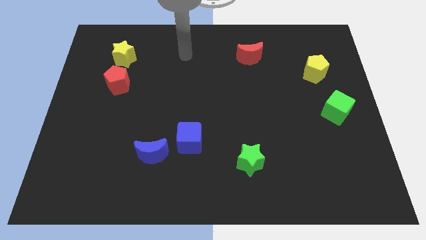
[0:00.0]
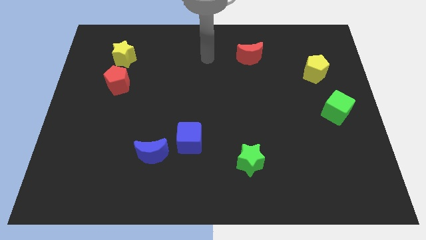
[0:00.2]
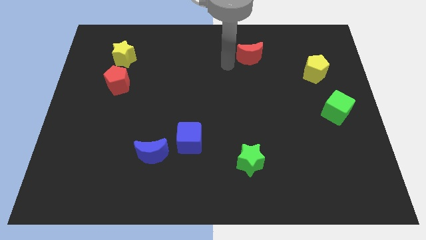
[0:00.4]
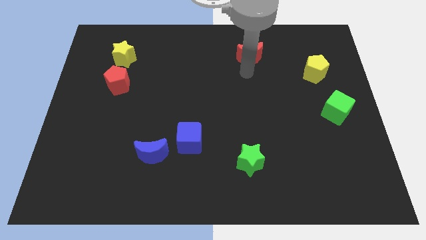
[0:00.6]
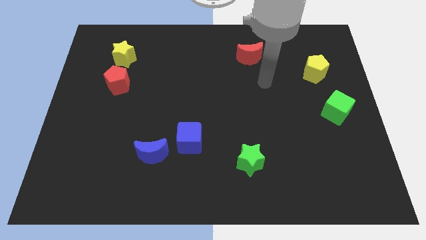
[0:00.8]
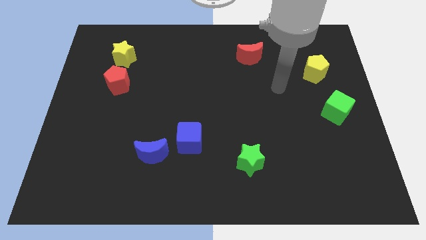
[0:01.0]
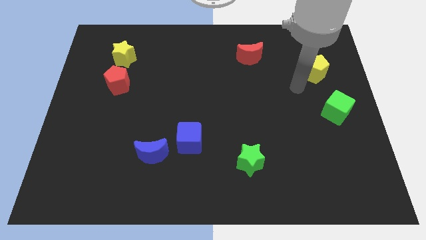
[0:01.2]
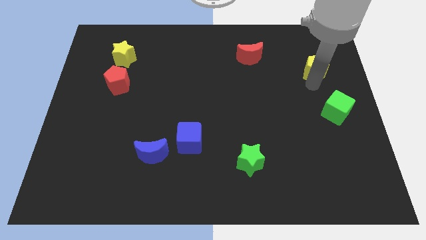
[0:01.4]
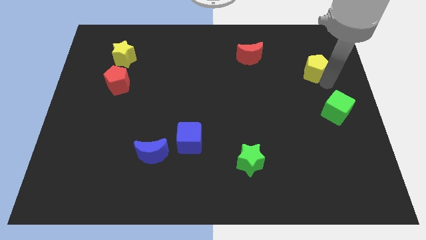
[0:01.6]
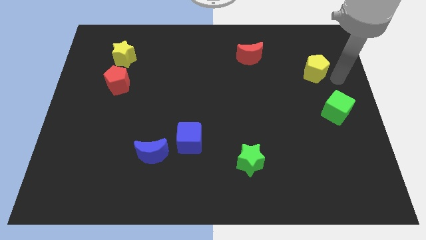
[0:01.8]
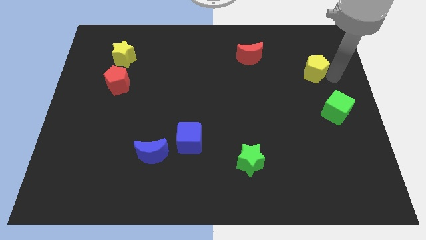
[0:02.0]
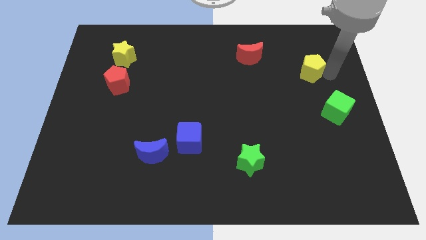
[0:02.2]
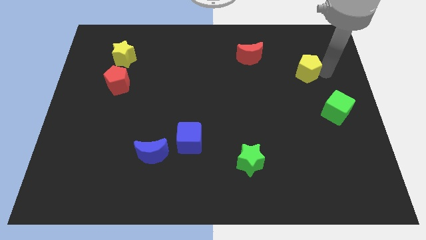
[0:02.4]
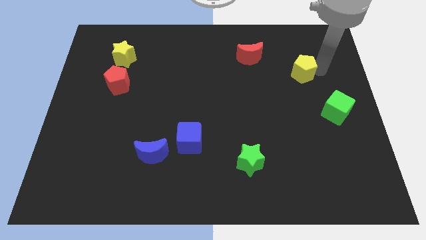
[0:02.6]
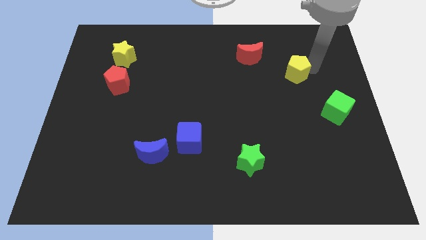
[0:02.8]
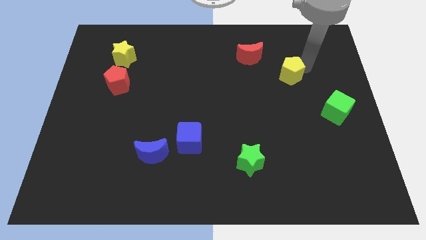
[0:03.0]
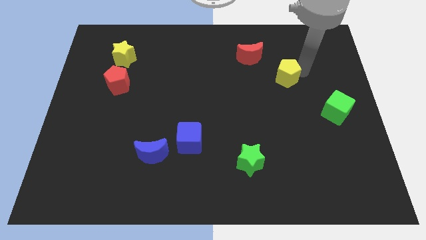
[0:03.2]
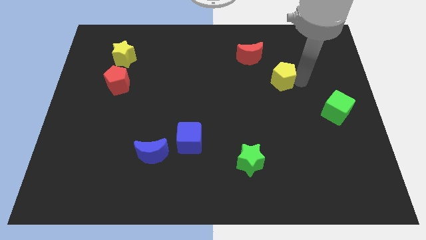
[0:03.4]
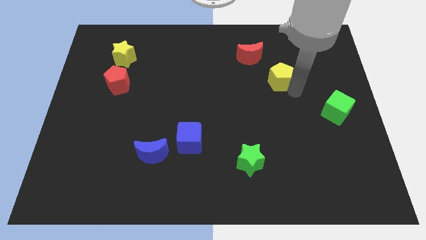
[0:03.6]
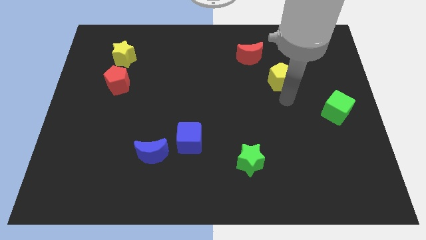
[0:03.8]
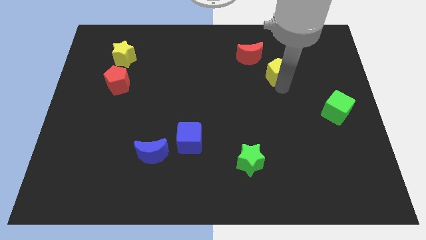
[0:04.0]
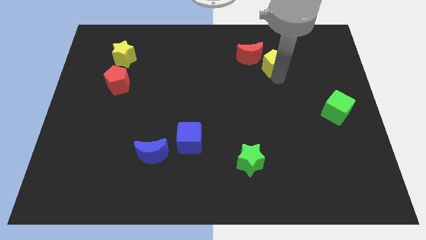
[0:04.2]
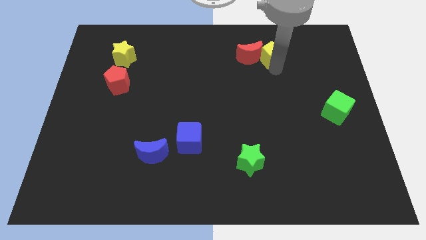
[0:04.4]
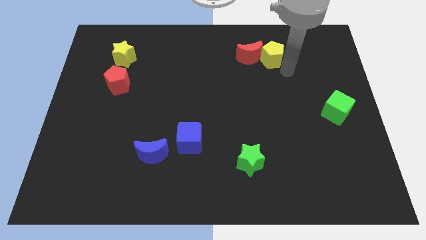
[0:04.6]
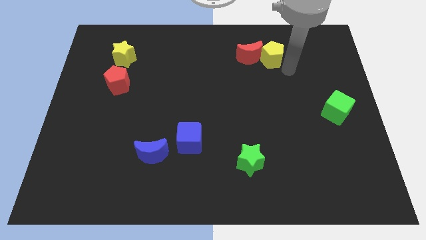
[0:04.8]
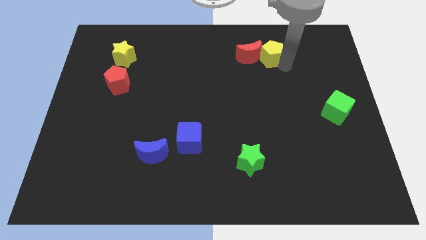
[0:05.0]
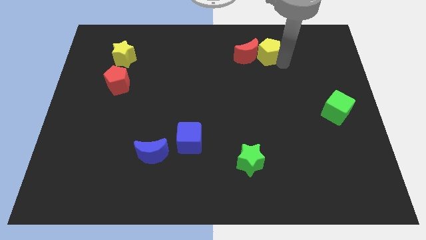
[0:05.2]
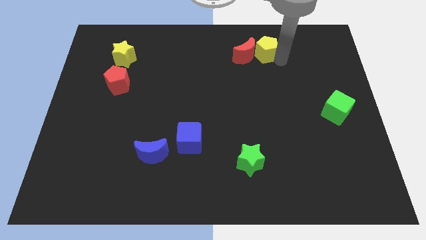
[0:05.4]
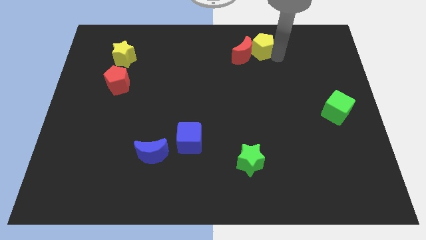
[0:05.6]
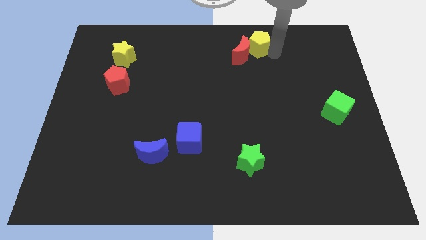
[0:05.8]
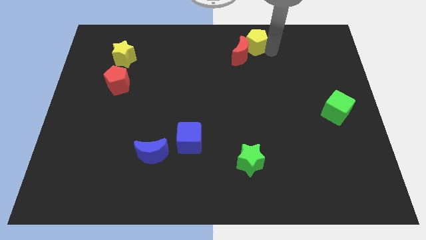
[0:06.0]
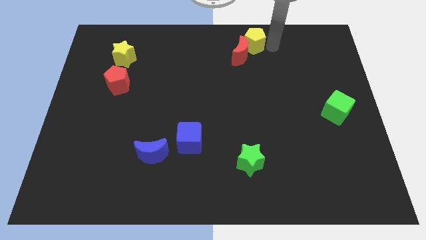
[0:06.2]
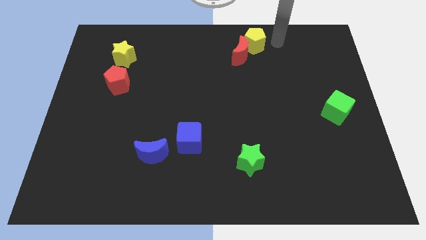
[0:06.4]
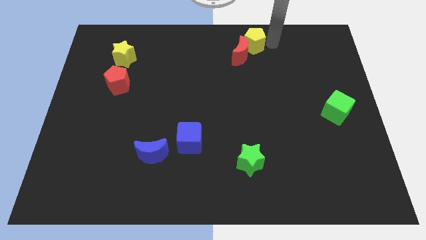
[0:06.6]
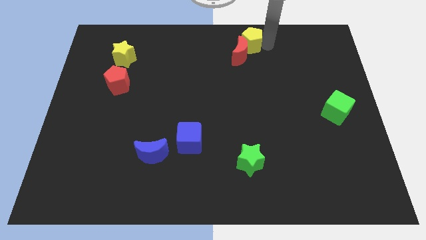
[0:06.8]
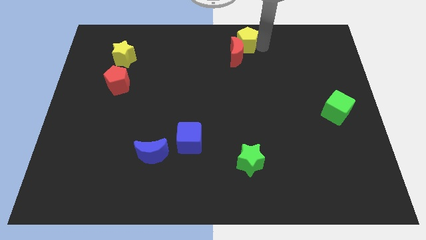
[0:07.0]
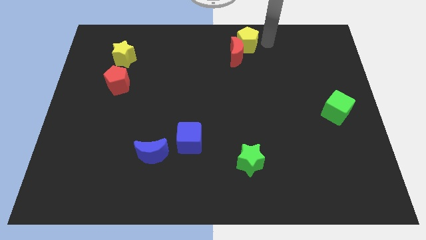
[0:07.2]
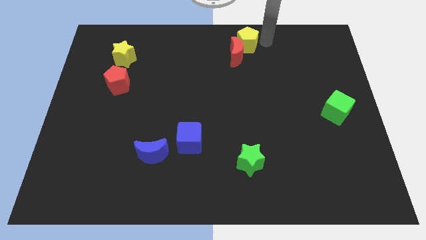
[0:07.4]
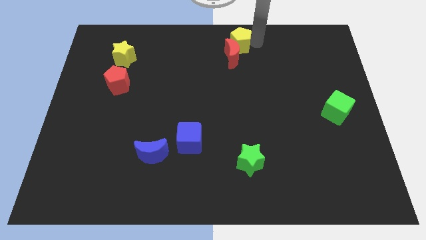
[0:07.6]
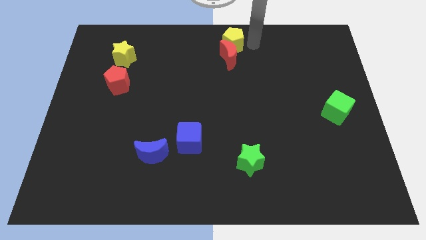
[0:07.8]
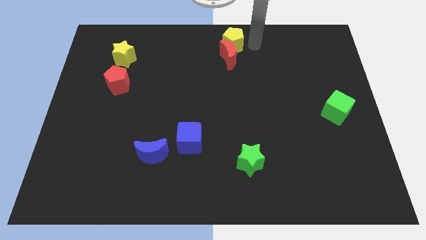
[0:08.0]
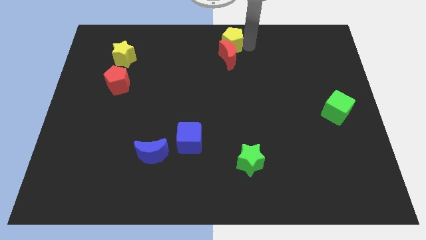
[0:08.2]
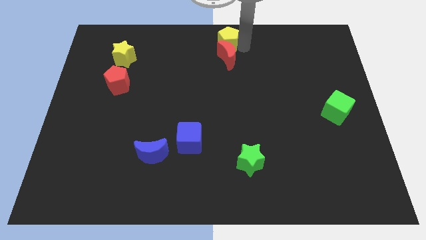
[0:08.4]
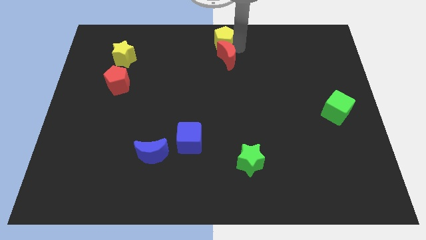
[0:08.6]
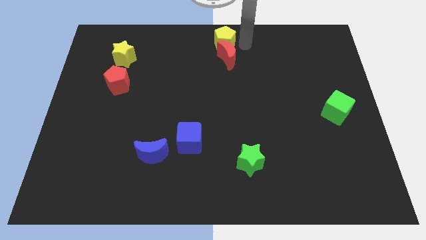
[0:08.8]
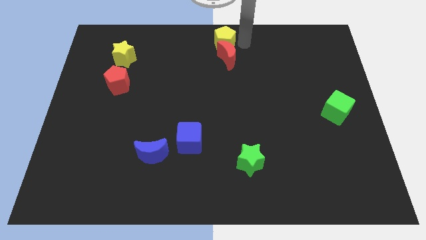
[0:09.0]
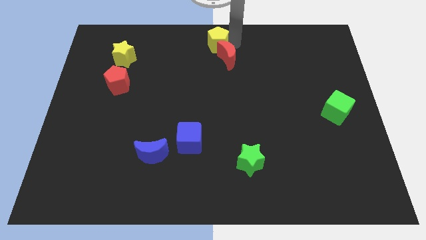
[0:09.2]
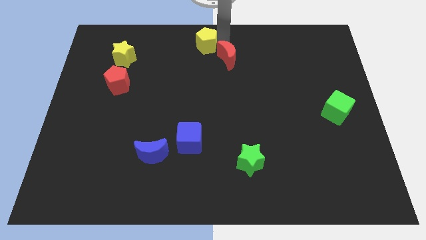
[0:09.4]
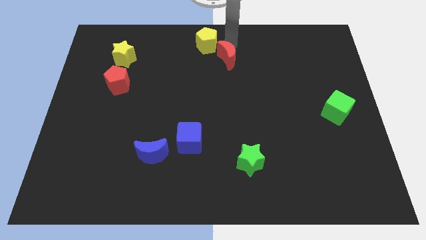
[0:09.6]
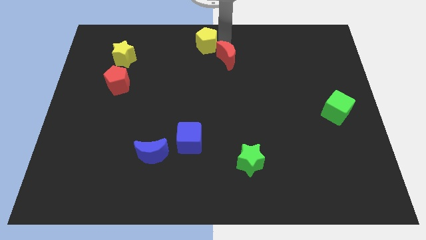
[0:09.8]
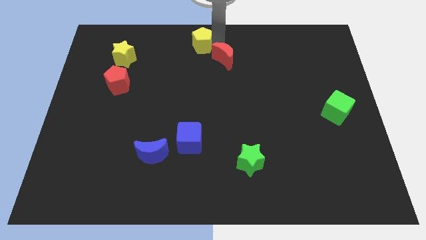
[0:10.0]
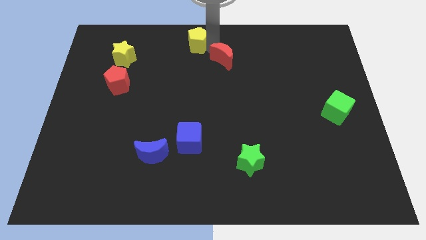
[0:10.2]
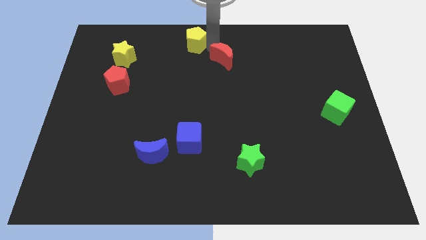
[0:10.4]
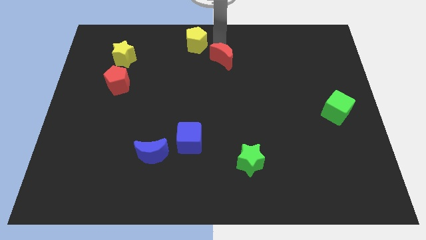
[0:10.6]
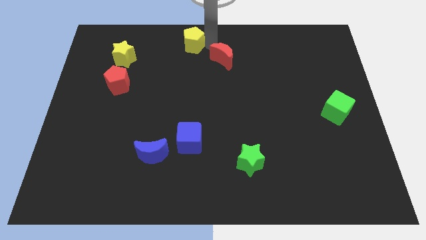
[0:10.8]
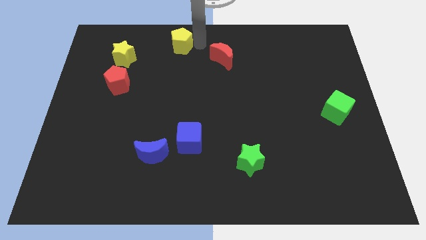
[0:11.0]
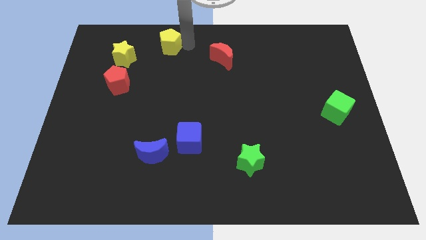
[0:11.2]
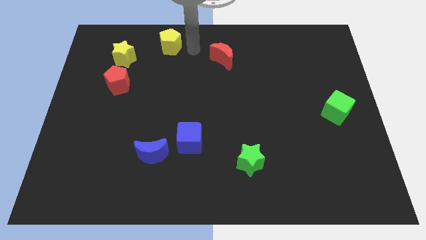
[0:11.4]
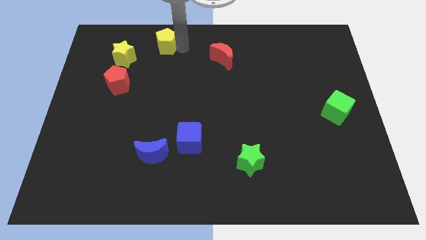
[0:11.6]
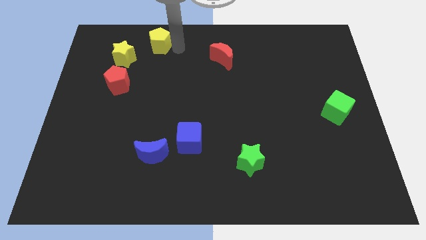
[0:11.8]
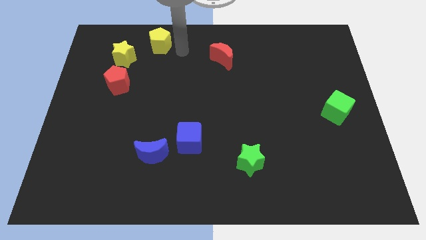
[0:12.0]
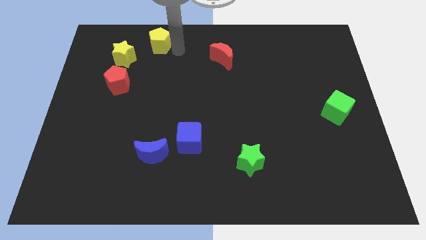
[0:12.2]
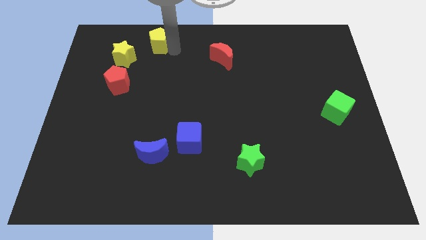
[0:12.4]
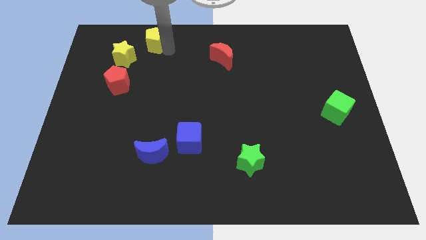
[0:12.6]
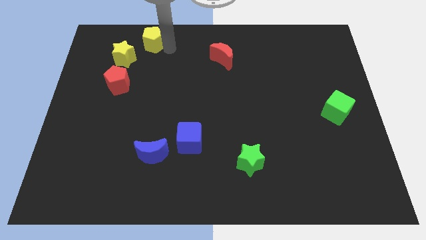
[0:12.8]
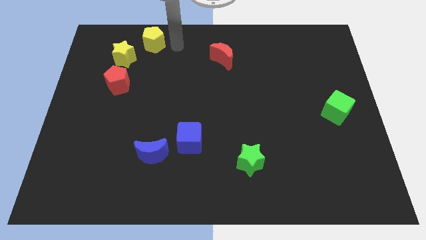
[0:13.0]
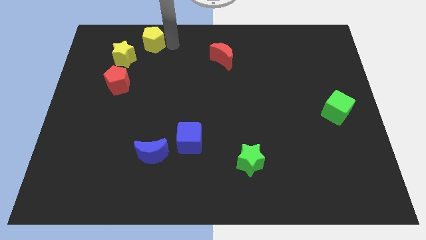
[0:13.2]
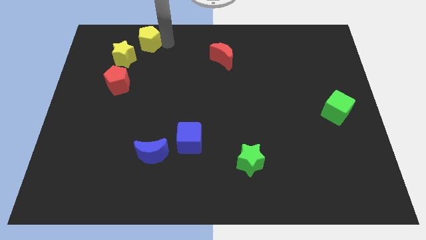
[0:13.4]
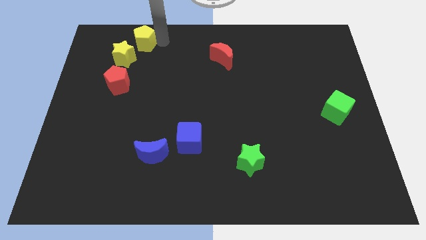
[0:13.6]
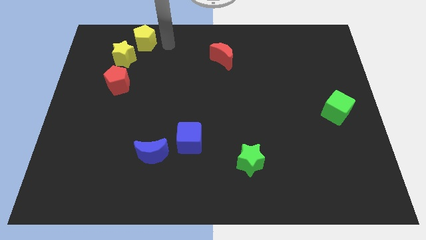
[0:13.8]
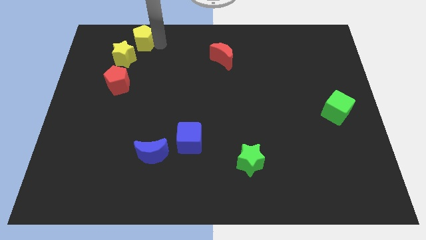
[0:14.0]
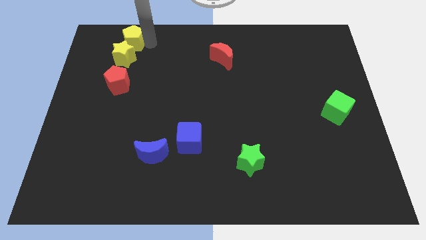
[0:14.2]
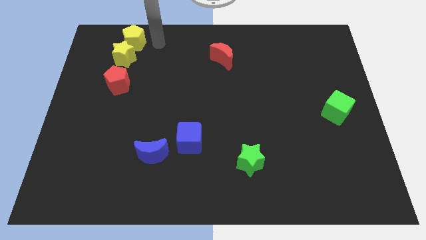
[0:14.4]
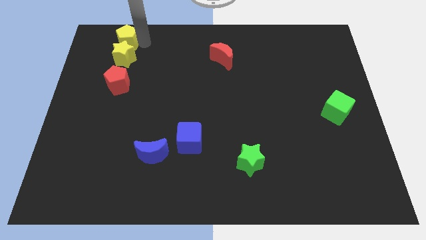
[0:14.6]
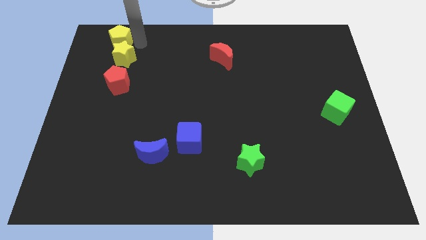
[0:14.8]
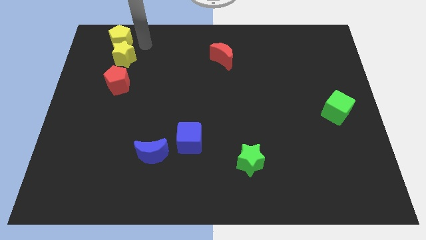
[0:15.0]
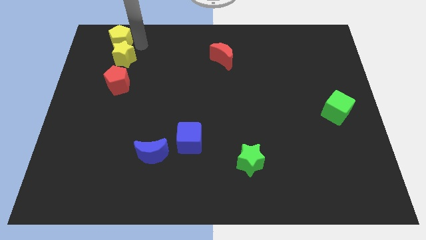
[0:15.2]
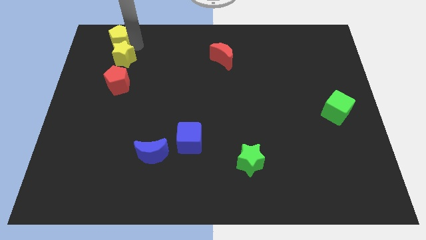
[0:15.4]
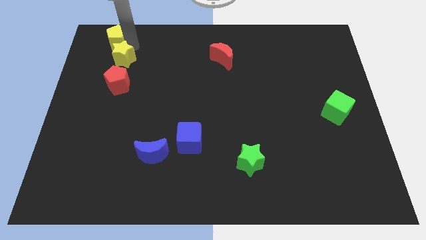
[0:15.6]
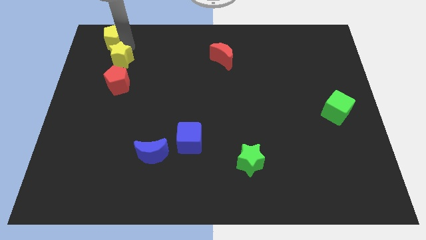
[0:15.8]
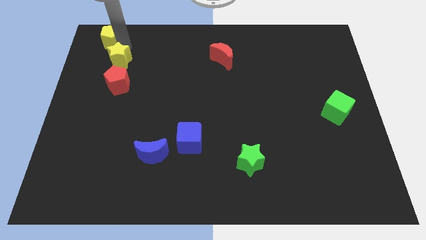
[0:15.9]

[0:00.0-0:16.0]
push the yellow pentagon to the upper left corner
